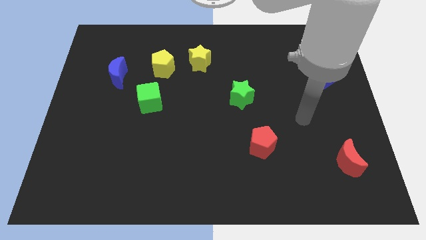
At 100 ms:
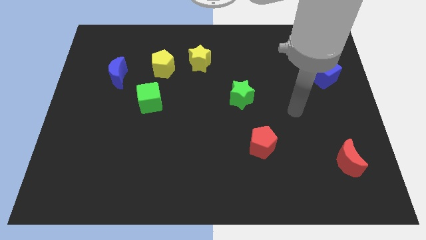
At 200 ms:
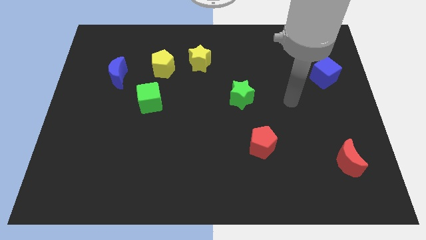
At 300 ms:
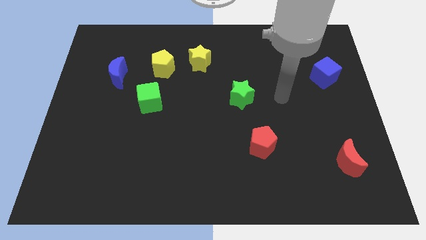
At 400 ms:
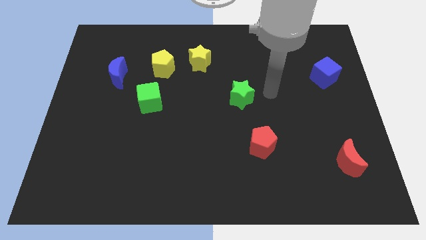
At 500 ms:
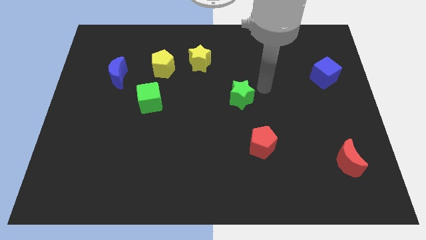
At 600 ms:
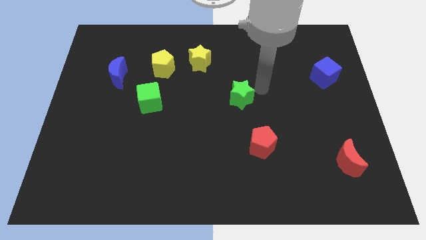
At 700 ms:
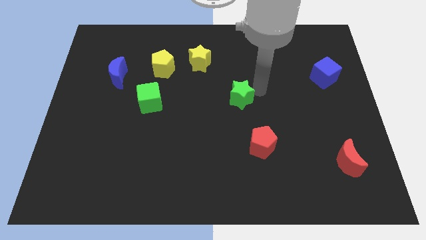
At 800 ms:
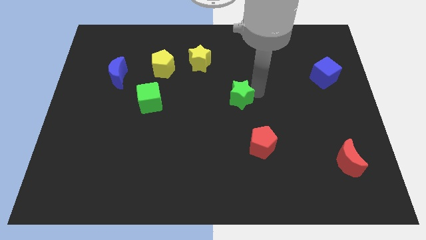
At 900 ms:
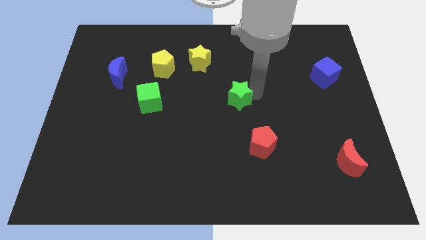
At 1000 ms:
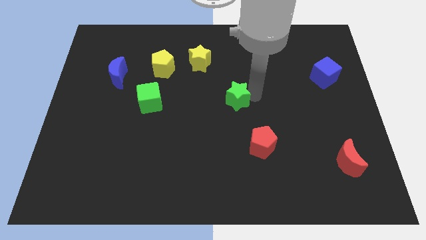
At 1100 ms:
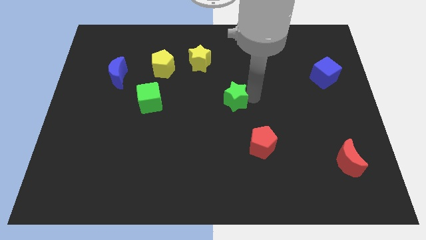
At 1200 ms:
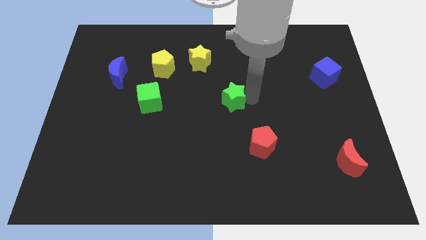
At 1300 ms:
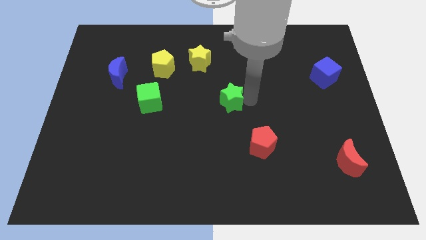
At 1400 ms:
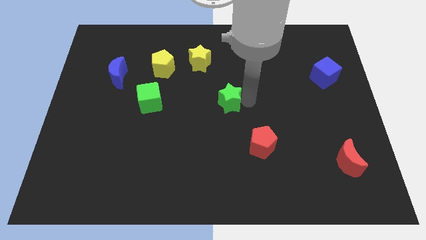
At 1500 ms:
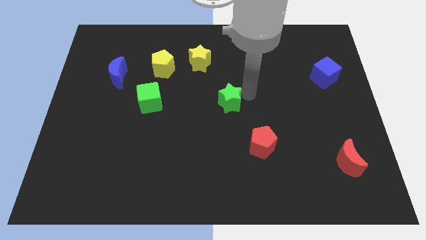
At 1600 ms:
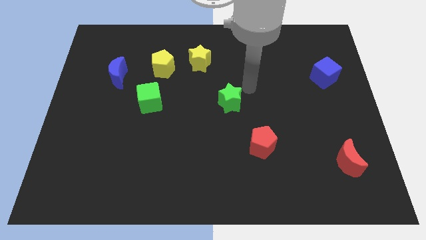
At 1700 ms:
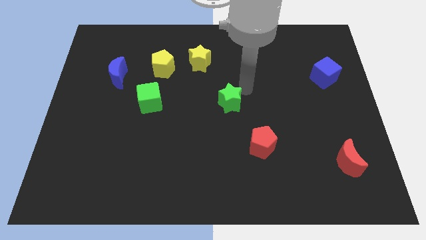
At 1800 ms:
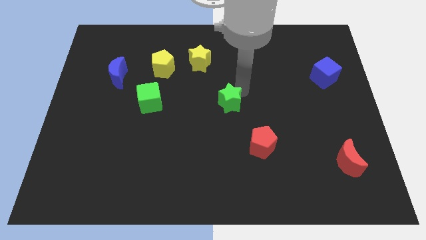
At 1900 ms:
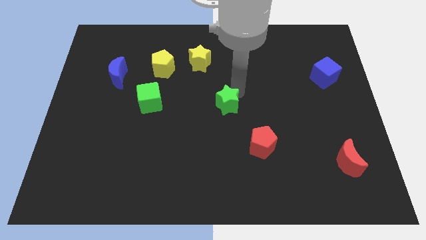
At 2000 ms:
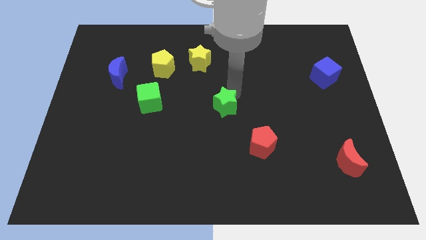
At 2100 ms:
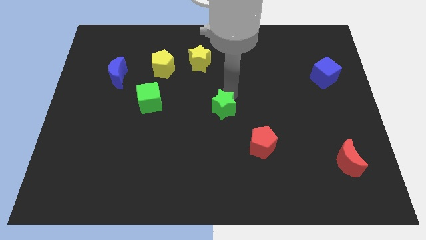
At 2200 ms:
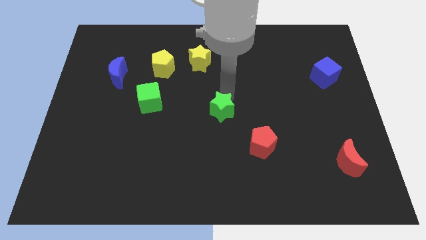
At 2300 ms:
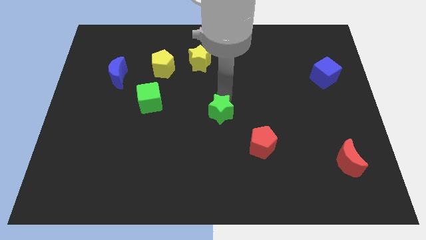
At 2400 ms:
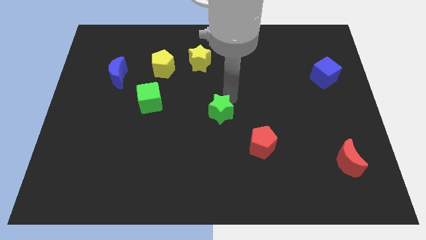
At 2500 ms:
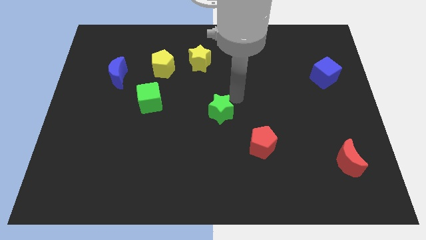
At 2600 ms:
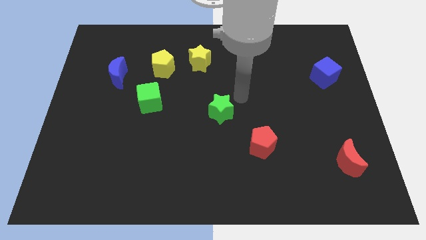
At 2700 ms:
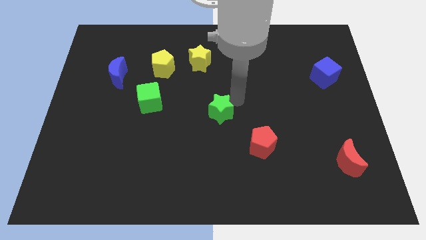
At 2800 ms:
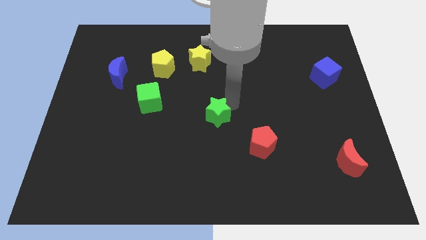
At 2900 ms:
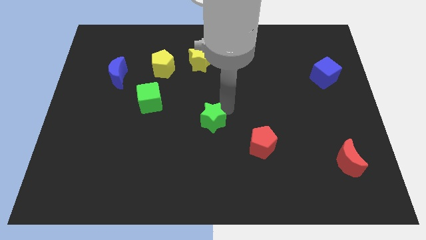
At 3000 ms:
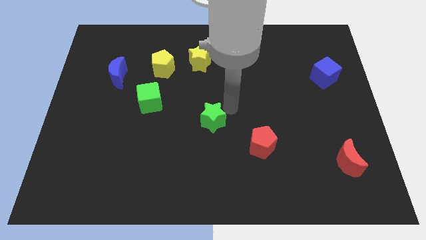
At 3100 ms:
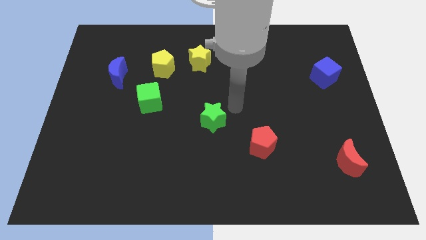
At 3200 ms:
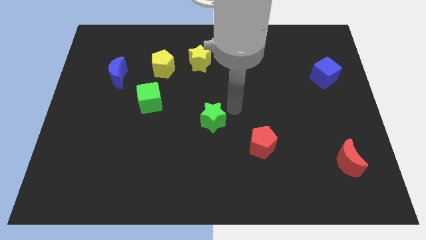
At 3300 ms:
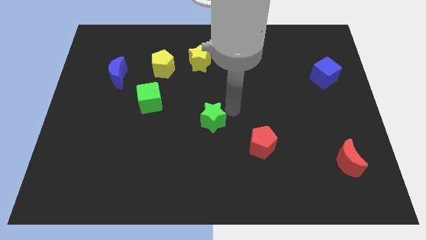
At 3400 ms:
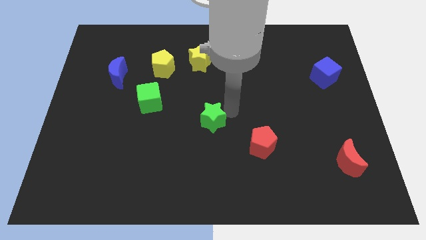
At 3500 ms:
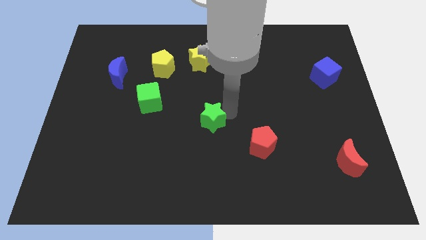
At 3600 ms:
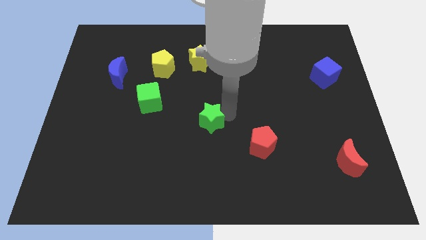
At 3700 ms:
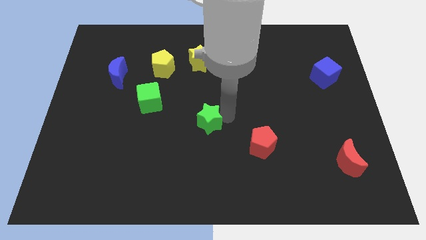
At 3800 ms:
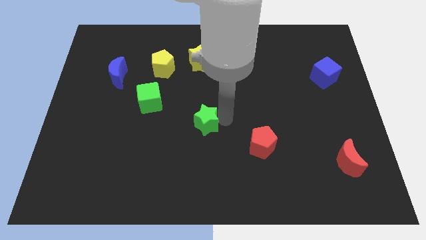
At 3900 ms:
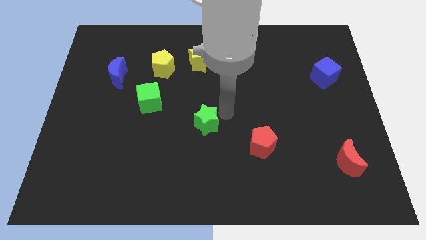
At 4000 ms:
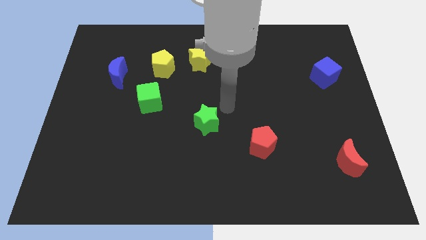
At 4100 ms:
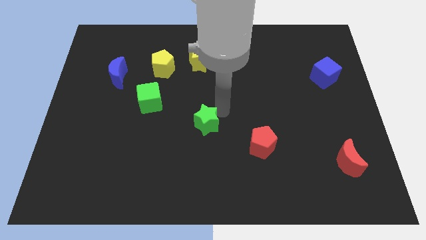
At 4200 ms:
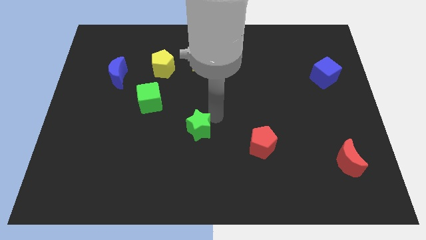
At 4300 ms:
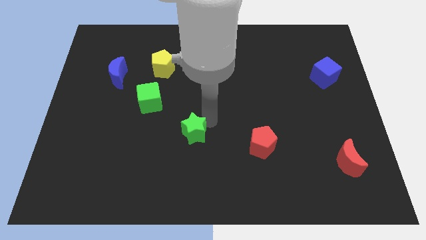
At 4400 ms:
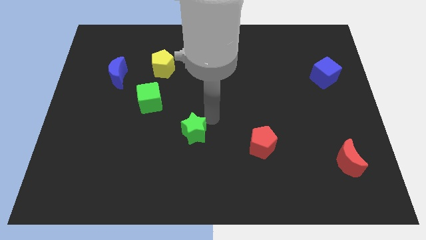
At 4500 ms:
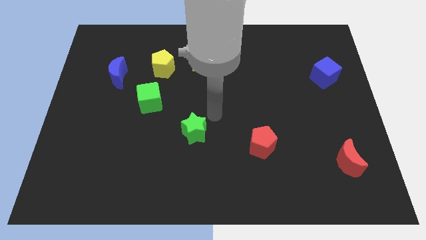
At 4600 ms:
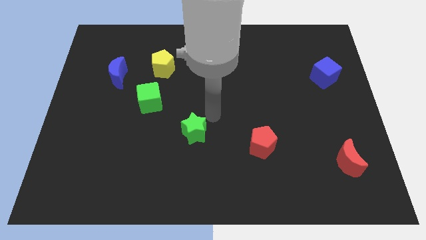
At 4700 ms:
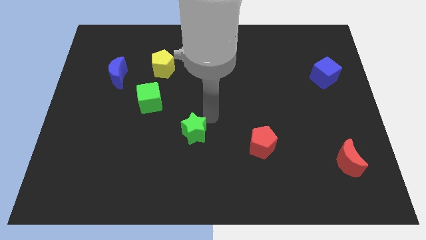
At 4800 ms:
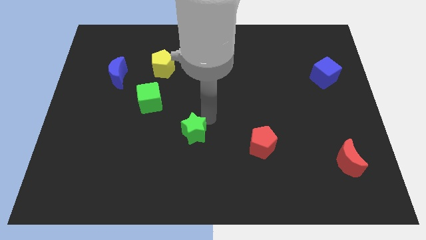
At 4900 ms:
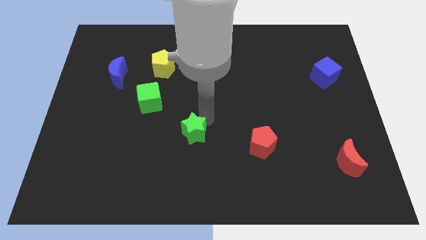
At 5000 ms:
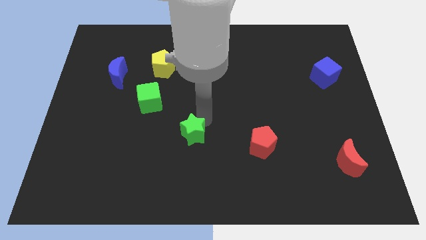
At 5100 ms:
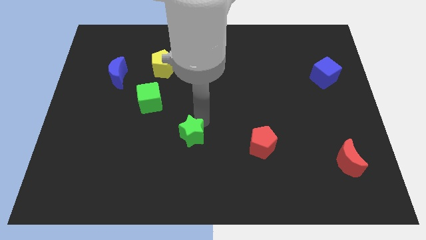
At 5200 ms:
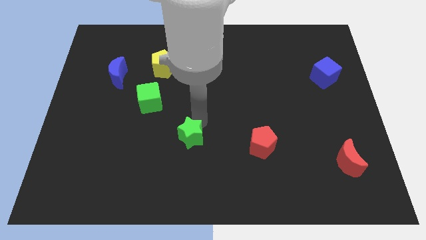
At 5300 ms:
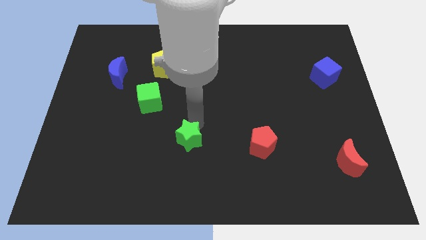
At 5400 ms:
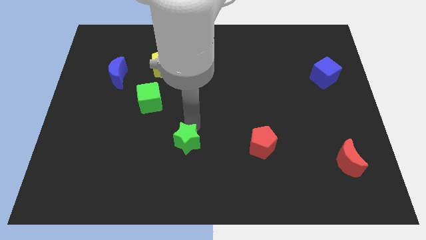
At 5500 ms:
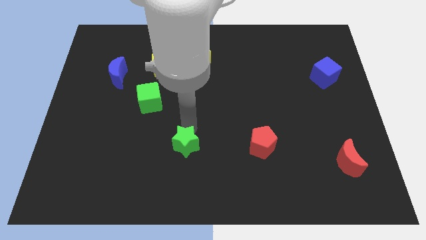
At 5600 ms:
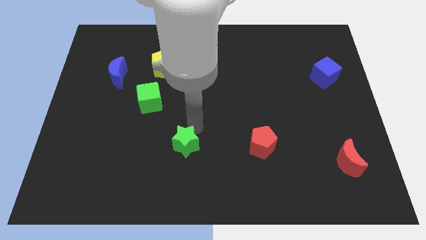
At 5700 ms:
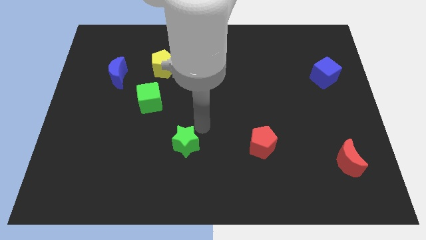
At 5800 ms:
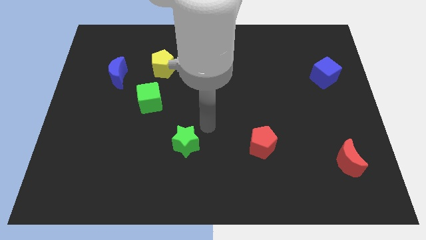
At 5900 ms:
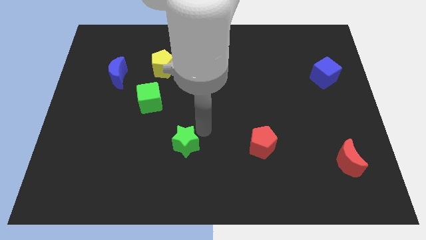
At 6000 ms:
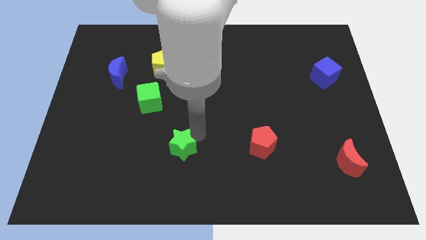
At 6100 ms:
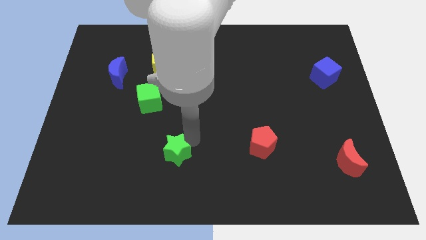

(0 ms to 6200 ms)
slide the green star downwards and then left

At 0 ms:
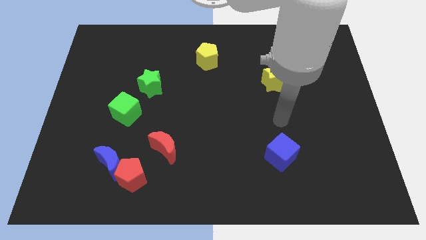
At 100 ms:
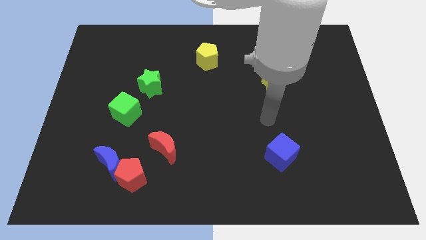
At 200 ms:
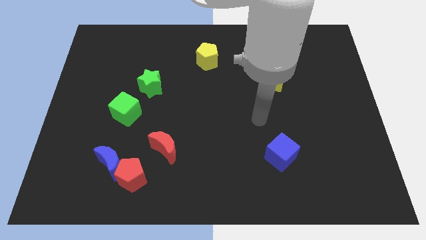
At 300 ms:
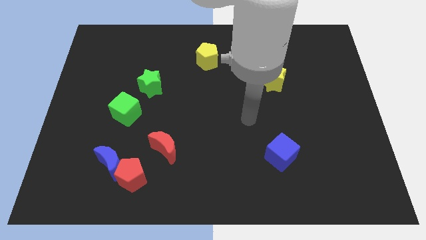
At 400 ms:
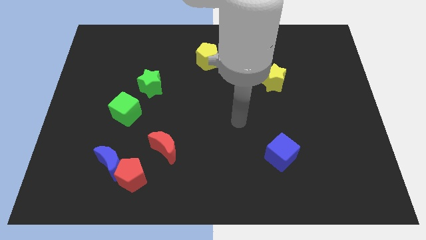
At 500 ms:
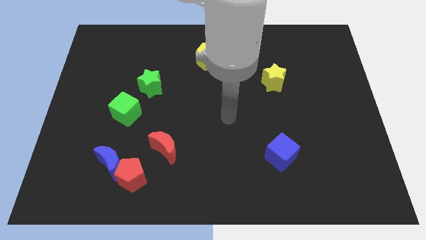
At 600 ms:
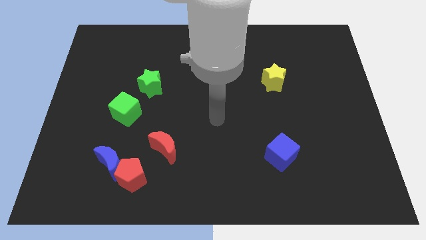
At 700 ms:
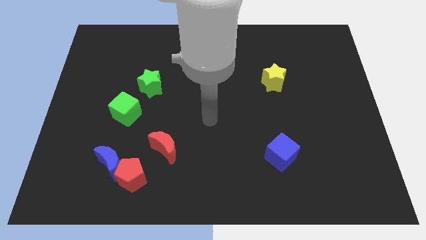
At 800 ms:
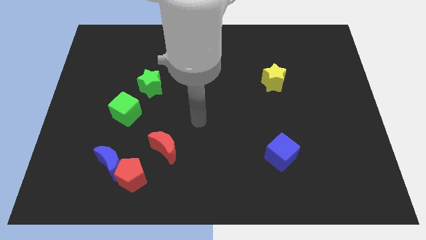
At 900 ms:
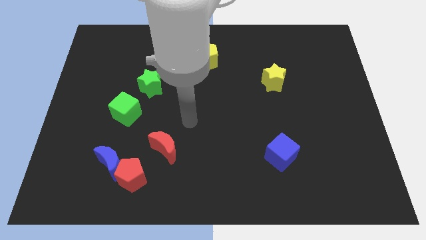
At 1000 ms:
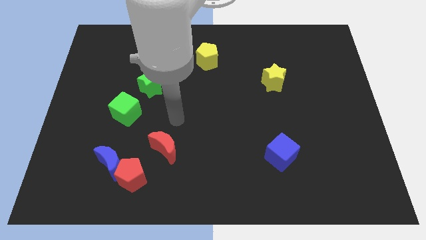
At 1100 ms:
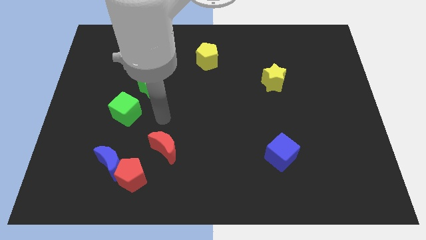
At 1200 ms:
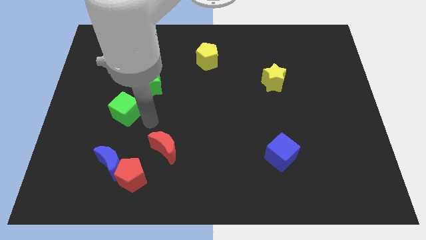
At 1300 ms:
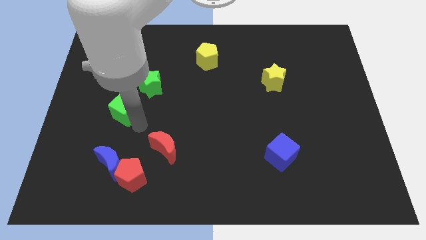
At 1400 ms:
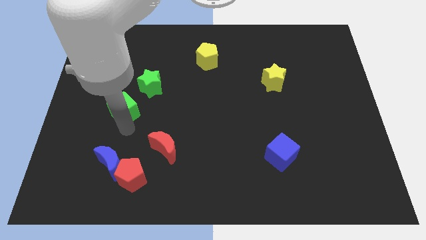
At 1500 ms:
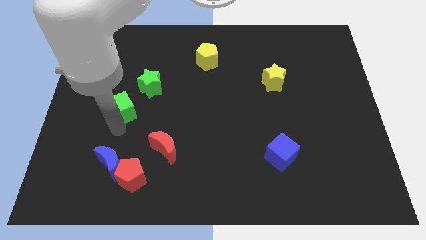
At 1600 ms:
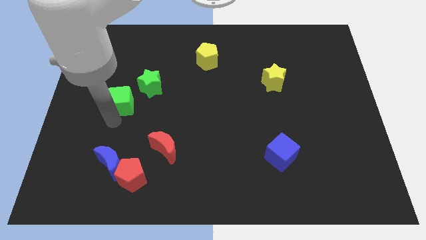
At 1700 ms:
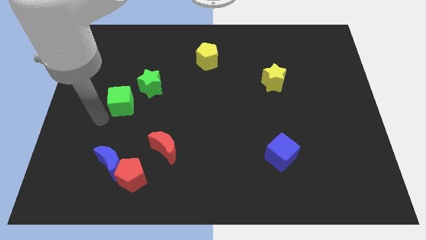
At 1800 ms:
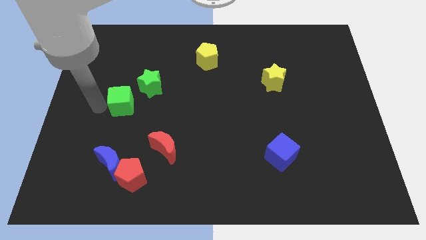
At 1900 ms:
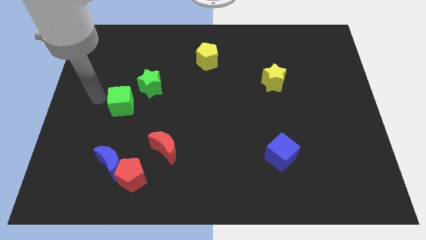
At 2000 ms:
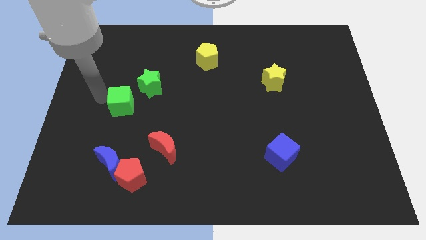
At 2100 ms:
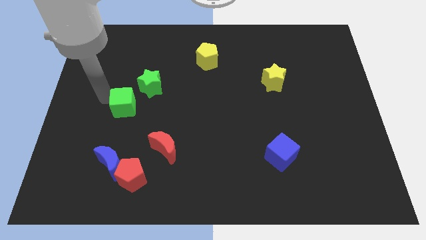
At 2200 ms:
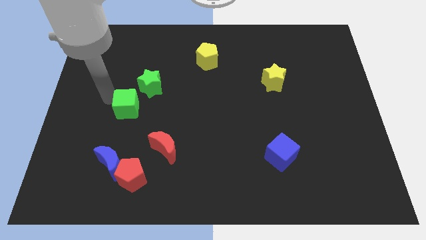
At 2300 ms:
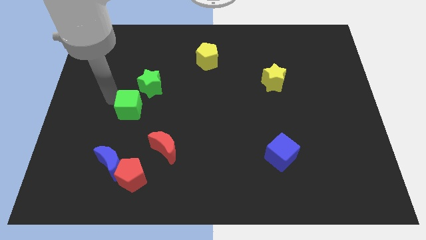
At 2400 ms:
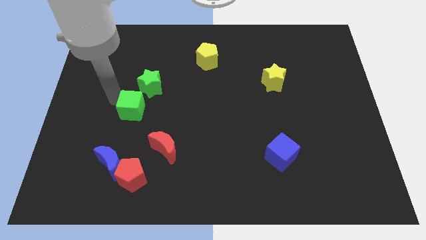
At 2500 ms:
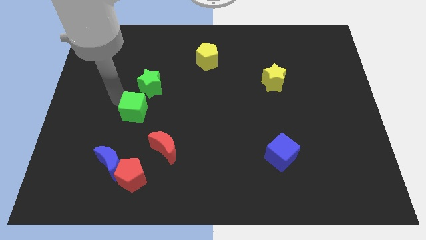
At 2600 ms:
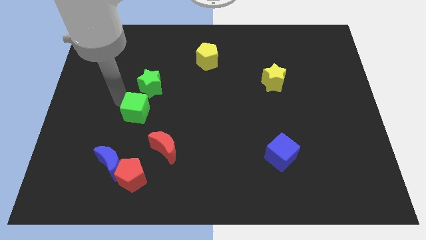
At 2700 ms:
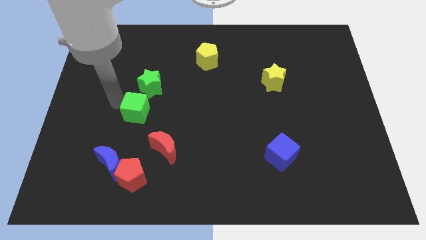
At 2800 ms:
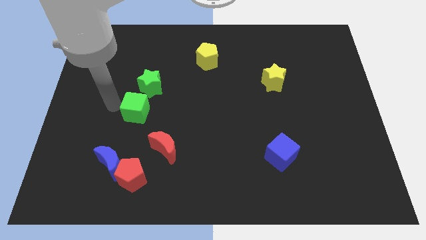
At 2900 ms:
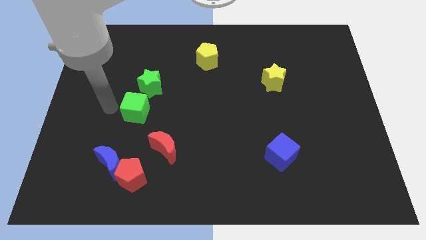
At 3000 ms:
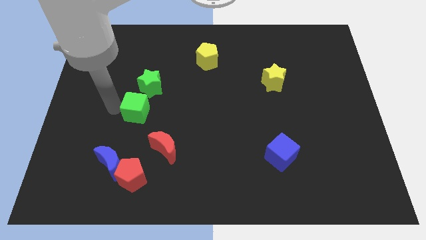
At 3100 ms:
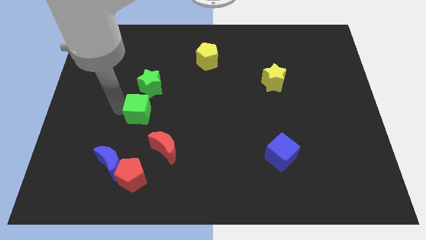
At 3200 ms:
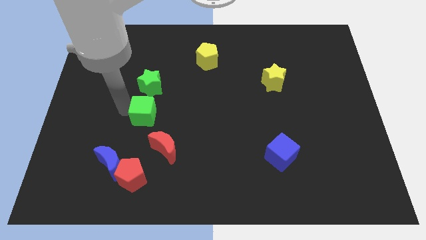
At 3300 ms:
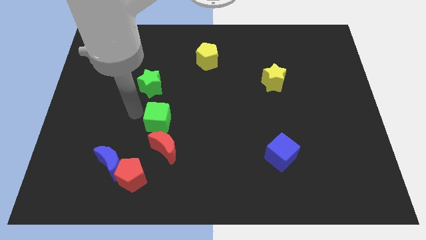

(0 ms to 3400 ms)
move the green cube to the right a little bit
